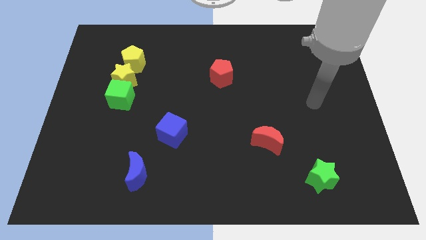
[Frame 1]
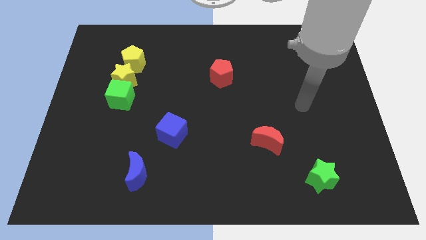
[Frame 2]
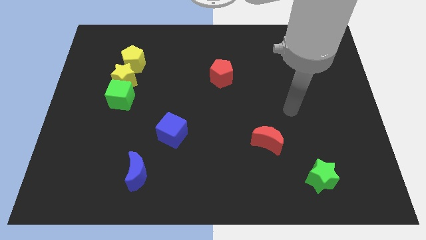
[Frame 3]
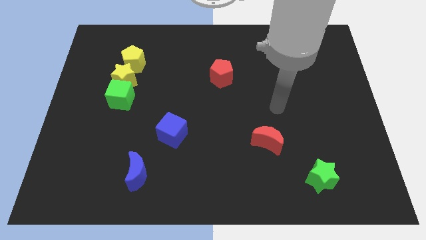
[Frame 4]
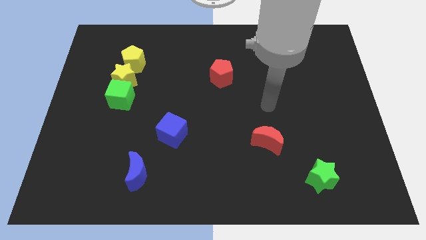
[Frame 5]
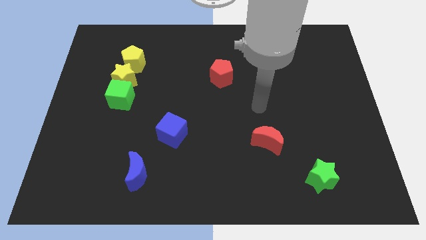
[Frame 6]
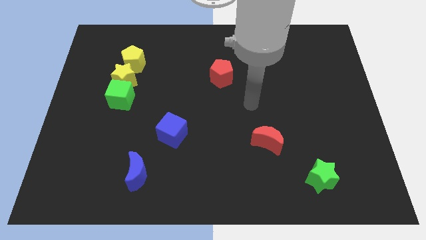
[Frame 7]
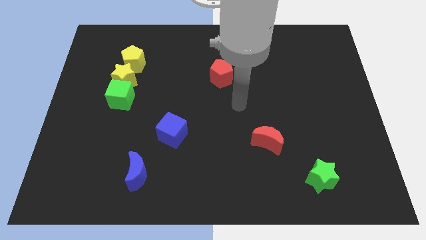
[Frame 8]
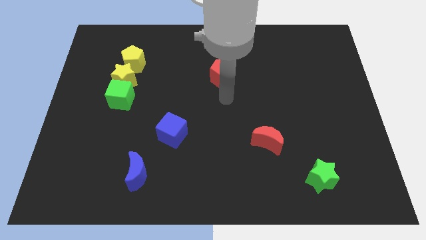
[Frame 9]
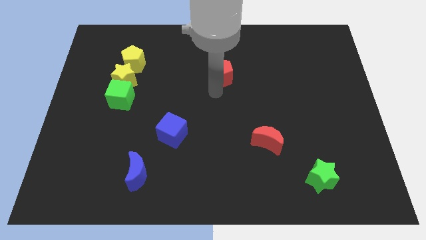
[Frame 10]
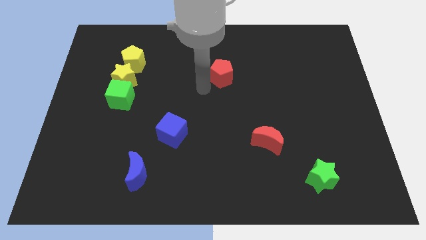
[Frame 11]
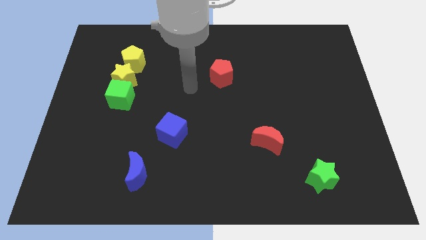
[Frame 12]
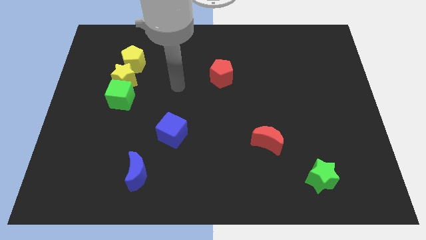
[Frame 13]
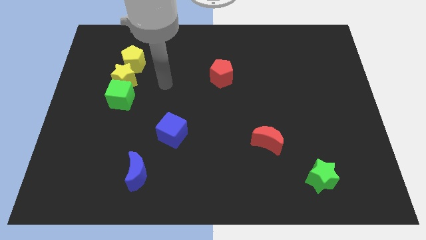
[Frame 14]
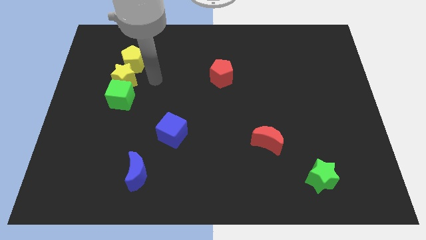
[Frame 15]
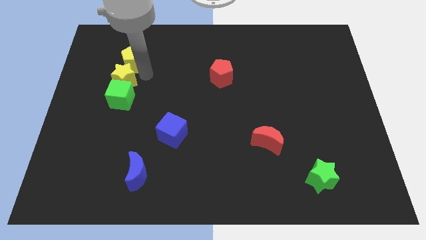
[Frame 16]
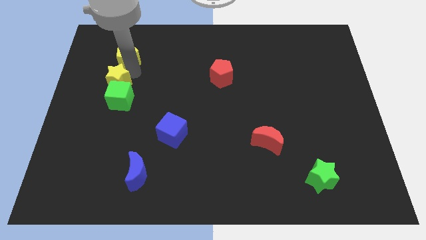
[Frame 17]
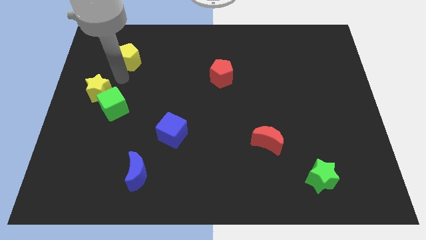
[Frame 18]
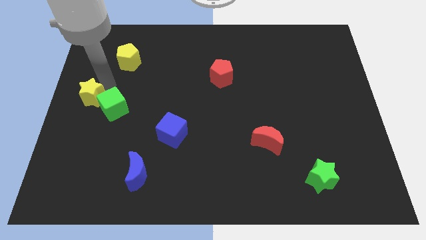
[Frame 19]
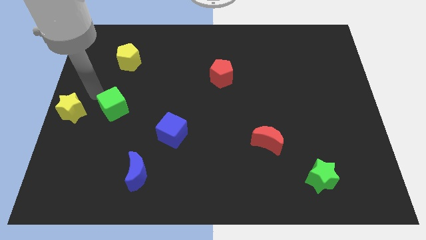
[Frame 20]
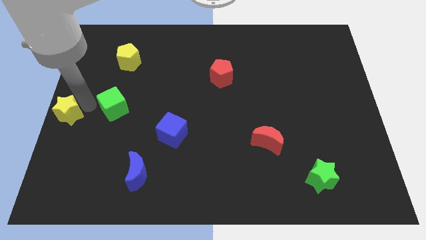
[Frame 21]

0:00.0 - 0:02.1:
separate the green cube from the yellow star

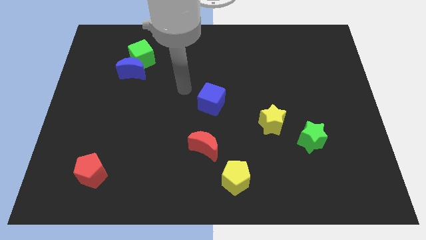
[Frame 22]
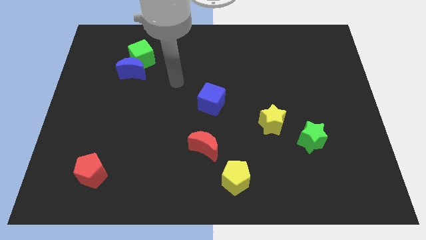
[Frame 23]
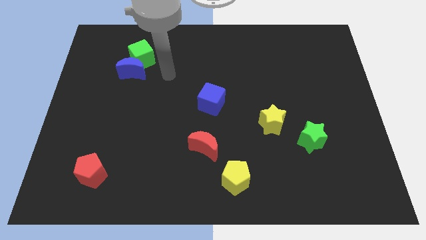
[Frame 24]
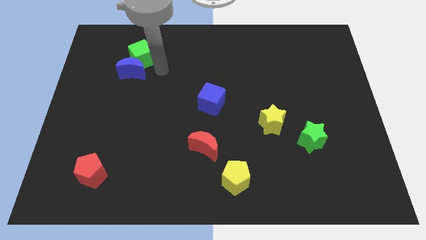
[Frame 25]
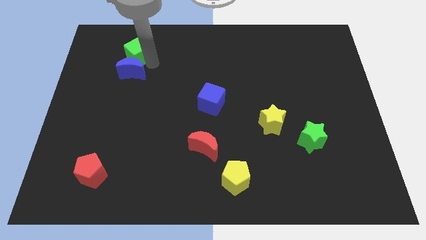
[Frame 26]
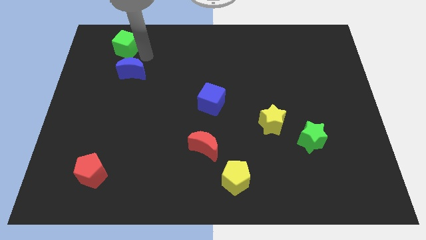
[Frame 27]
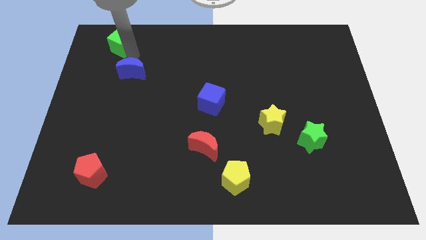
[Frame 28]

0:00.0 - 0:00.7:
move the blue moon away from the green cube

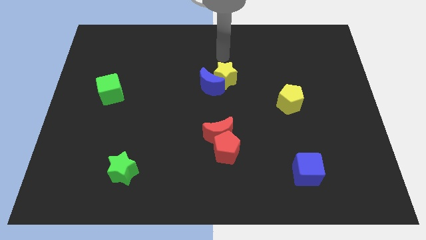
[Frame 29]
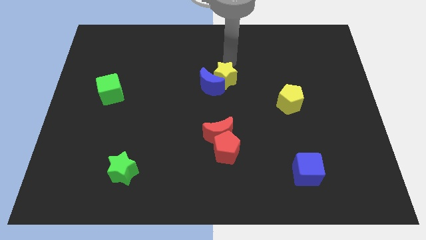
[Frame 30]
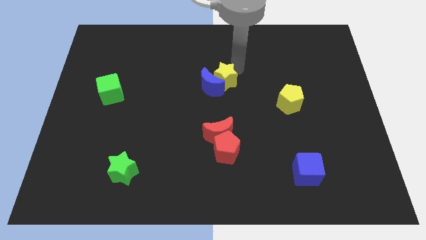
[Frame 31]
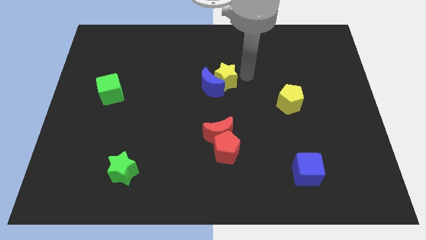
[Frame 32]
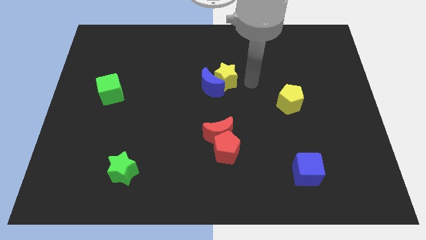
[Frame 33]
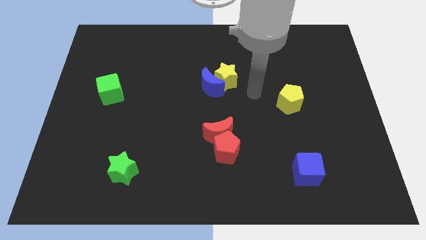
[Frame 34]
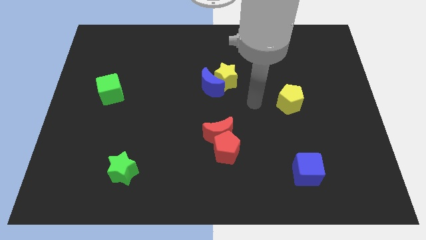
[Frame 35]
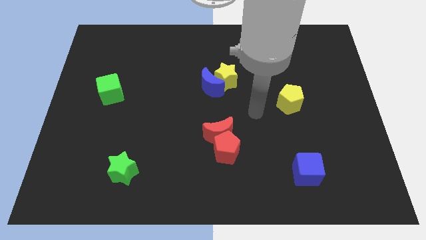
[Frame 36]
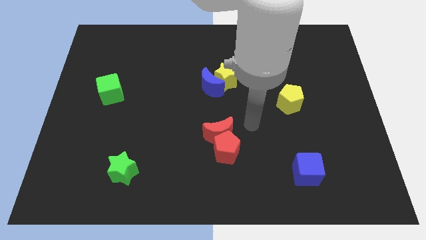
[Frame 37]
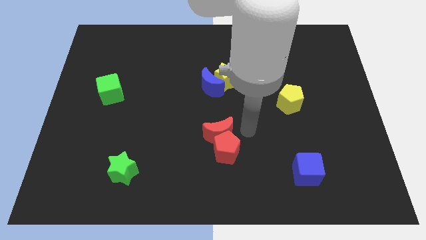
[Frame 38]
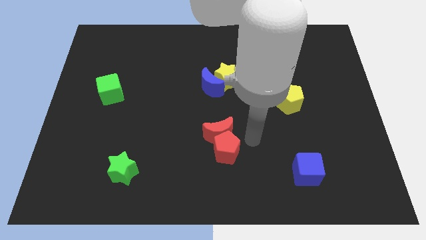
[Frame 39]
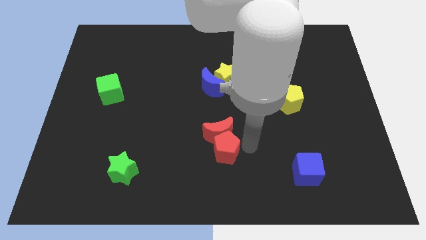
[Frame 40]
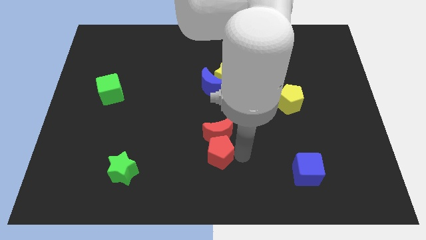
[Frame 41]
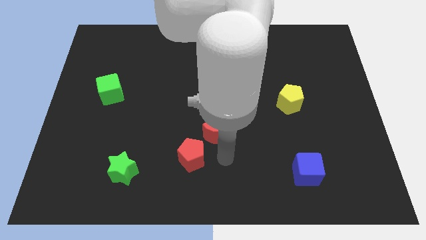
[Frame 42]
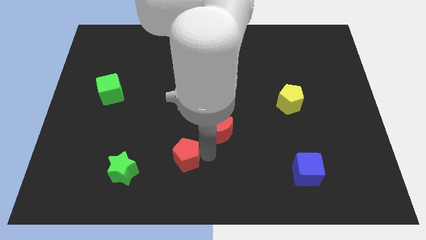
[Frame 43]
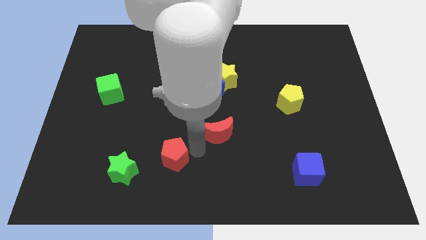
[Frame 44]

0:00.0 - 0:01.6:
pull the red moon apart from the red pentagon

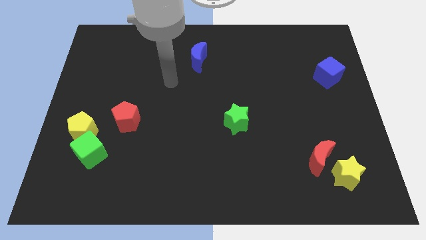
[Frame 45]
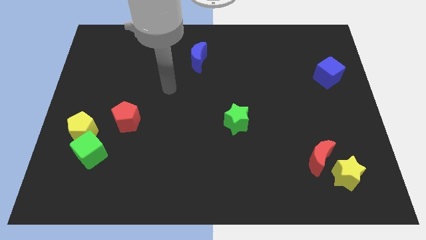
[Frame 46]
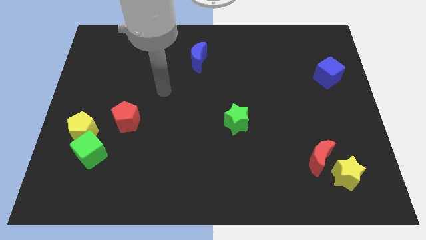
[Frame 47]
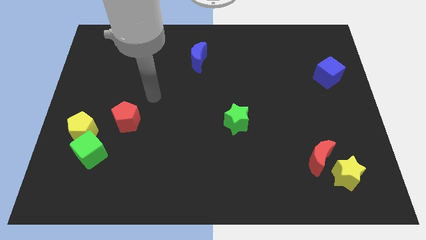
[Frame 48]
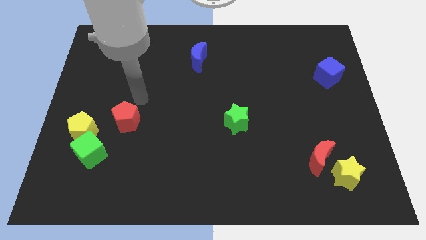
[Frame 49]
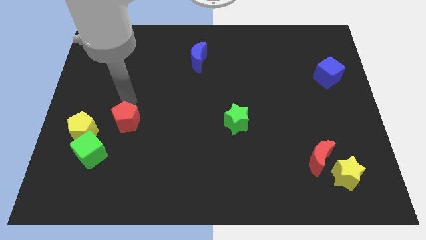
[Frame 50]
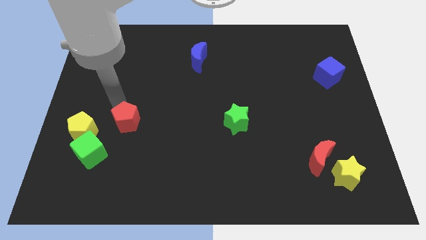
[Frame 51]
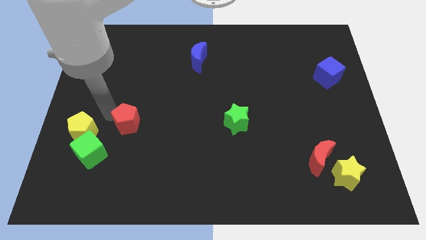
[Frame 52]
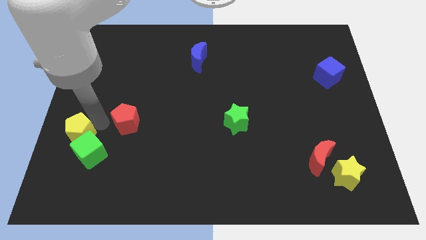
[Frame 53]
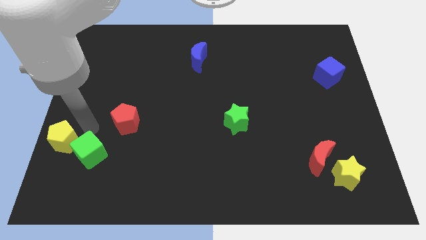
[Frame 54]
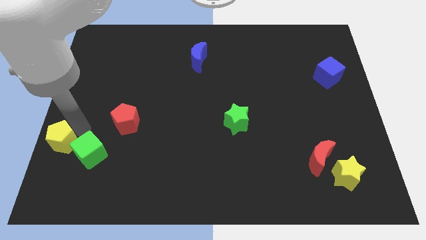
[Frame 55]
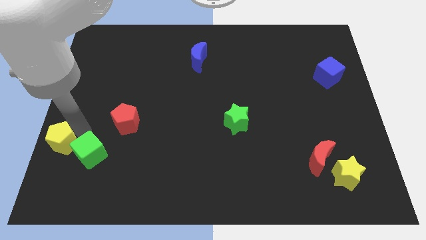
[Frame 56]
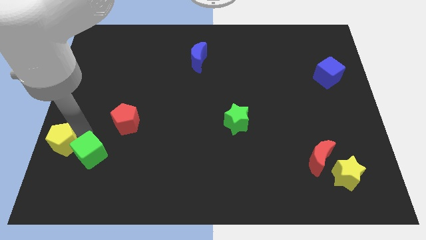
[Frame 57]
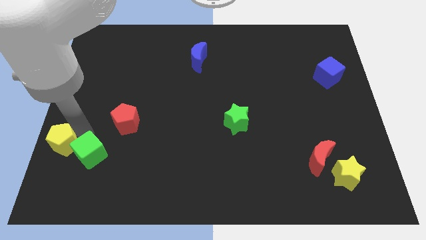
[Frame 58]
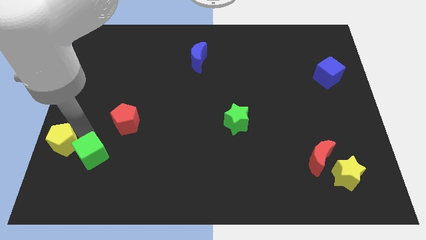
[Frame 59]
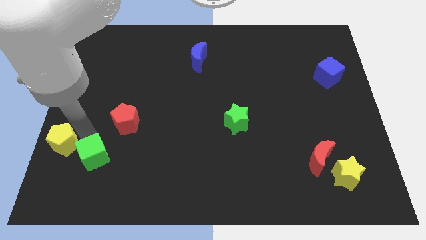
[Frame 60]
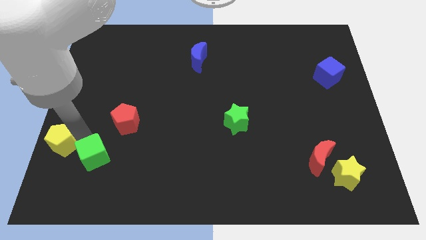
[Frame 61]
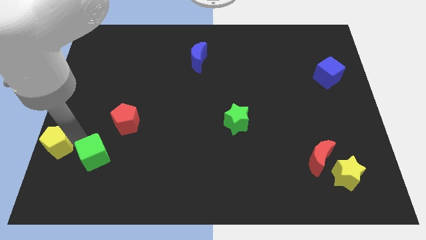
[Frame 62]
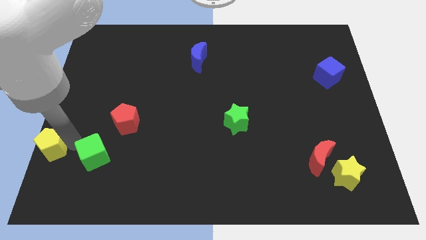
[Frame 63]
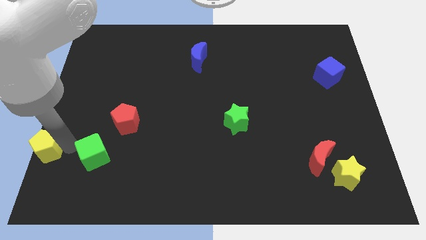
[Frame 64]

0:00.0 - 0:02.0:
pull the green cube apart from the yellow pentagon

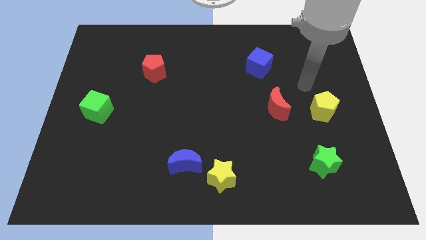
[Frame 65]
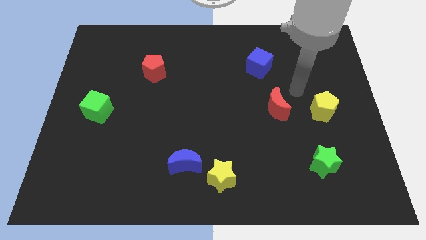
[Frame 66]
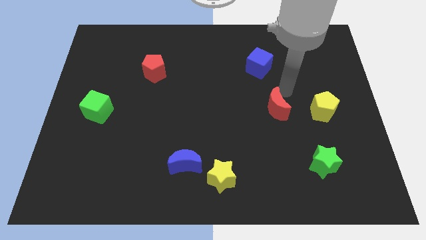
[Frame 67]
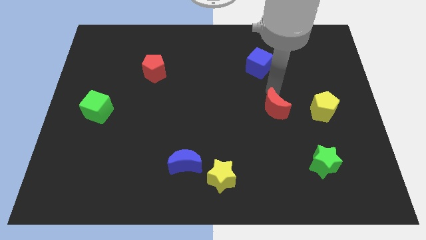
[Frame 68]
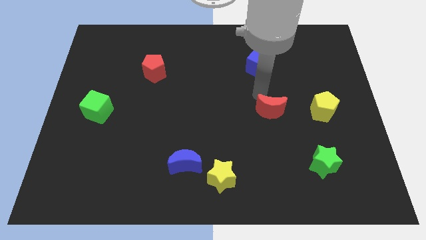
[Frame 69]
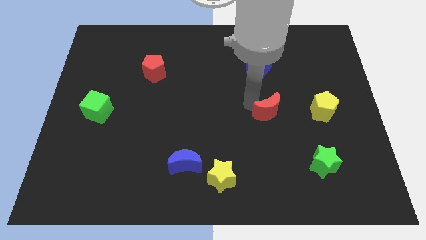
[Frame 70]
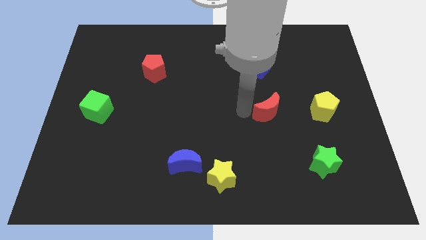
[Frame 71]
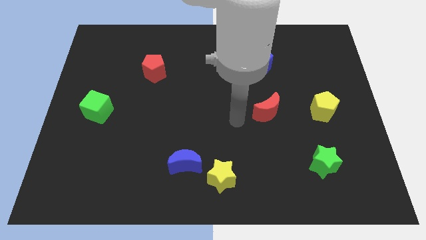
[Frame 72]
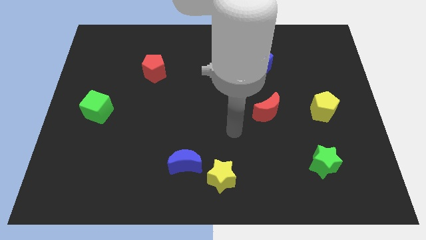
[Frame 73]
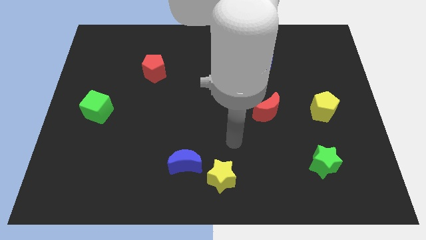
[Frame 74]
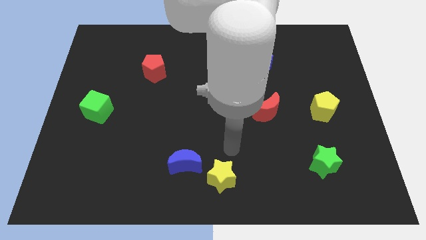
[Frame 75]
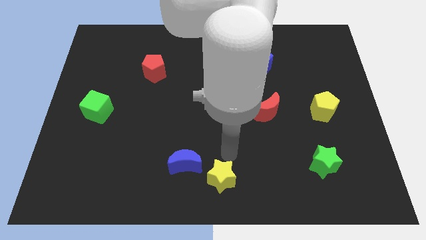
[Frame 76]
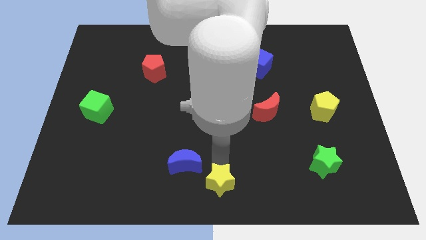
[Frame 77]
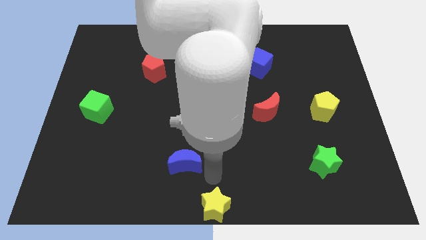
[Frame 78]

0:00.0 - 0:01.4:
pull the blue moon apart from the yellow star

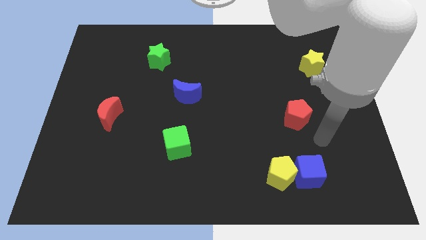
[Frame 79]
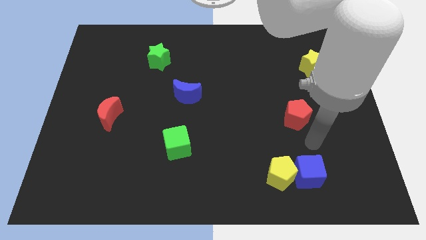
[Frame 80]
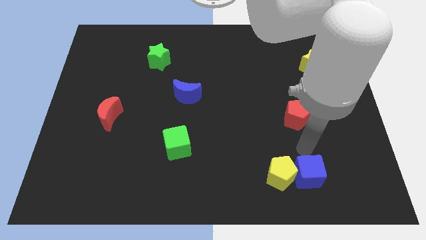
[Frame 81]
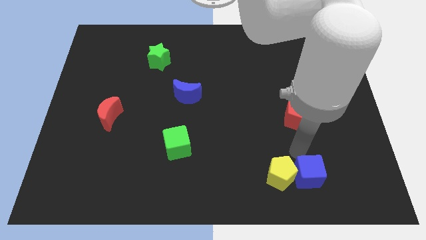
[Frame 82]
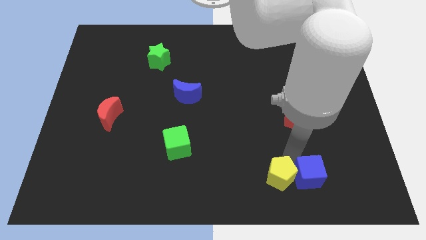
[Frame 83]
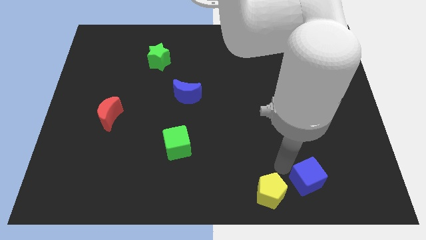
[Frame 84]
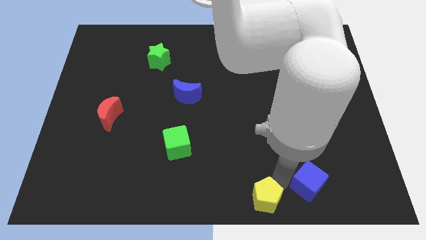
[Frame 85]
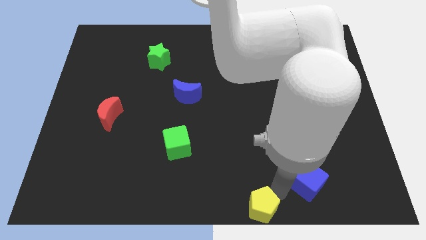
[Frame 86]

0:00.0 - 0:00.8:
move the blue cube away from the yellow pentagon

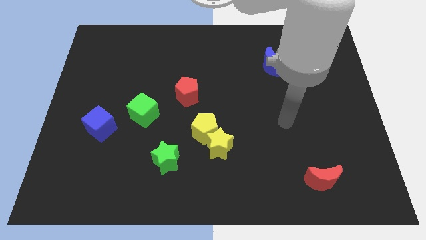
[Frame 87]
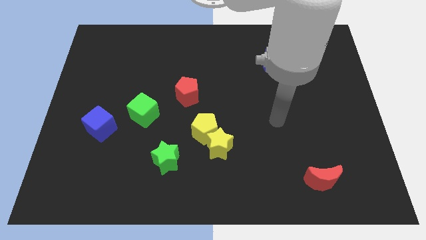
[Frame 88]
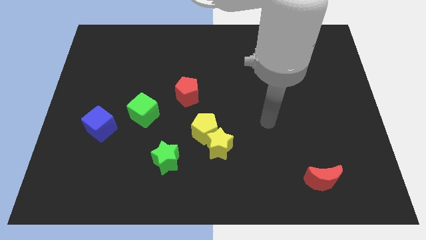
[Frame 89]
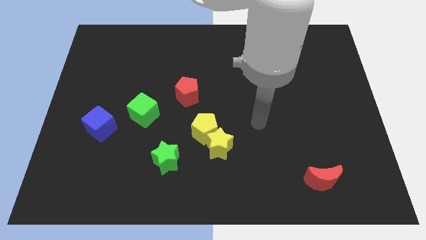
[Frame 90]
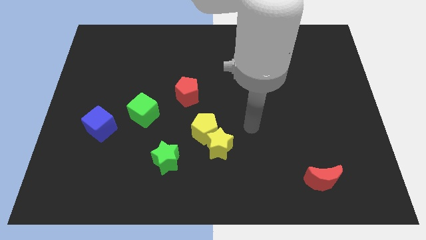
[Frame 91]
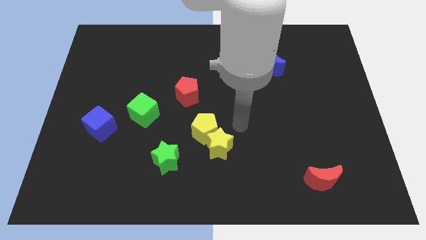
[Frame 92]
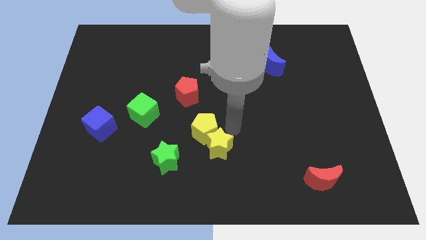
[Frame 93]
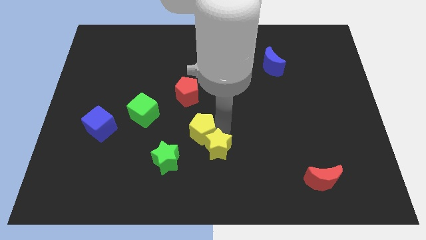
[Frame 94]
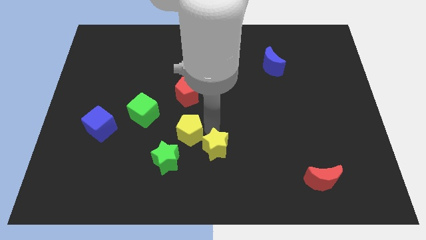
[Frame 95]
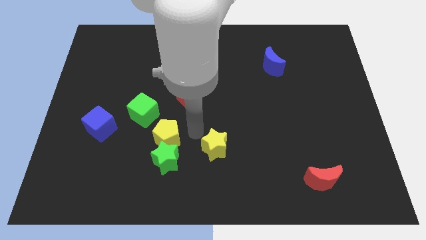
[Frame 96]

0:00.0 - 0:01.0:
separate the yellow star from the yellow pentagon
